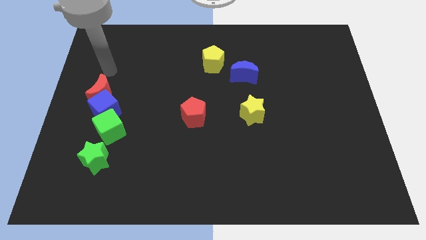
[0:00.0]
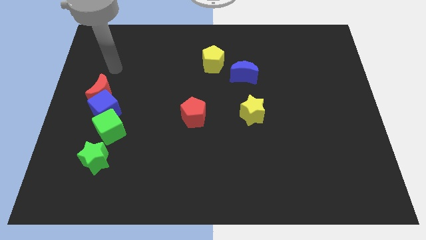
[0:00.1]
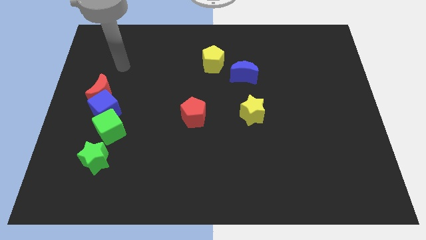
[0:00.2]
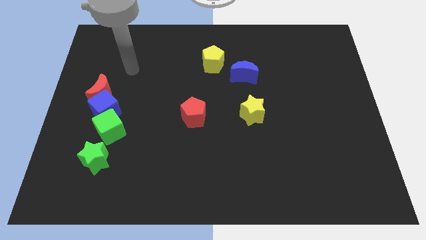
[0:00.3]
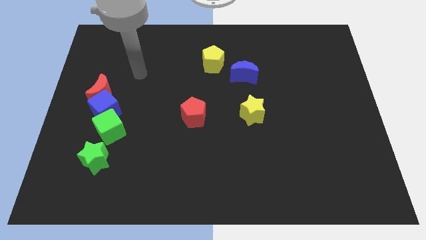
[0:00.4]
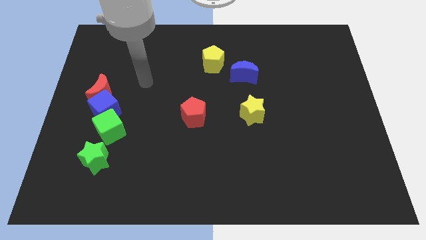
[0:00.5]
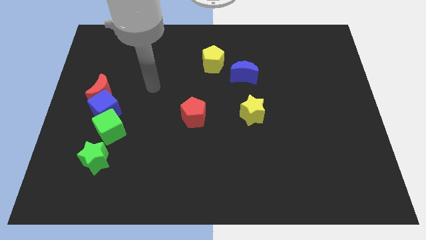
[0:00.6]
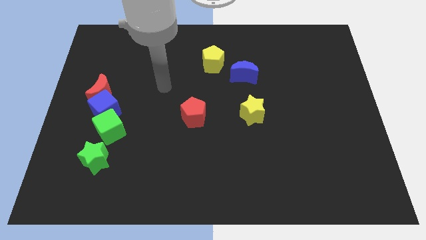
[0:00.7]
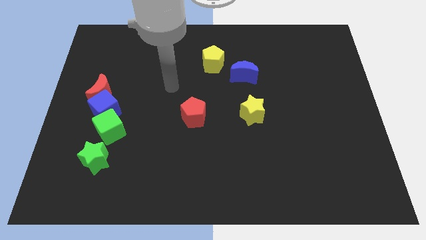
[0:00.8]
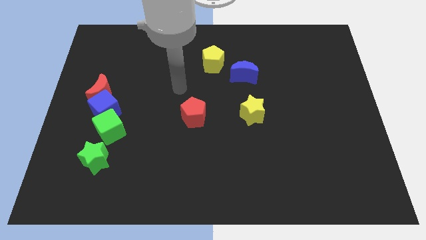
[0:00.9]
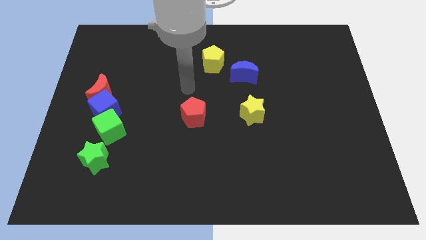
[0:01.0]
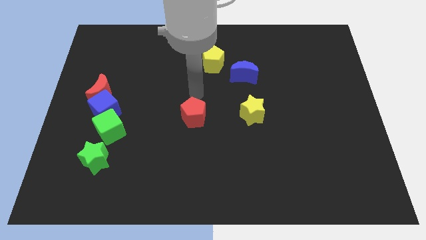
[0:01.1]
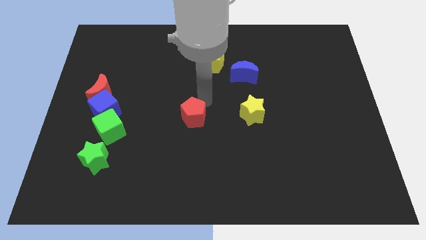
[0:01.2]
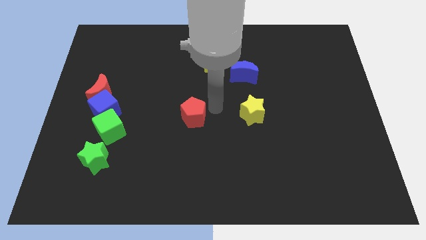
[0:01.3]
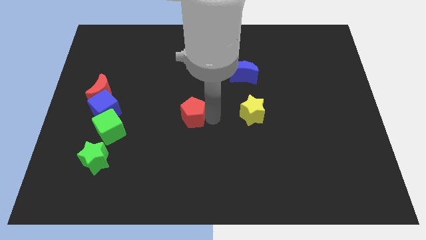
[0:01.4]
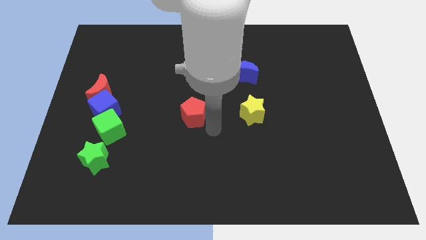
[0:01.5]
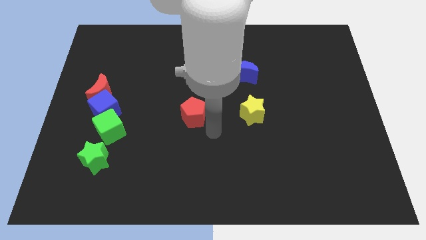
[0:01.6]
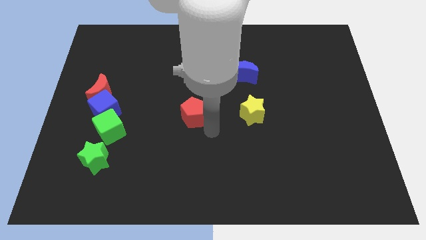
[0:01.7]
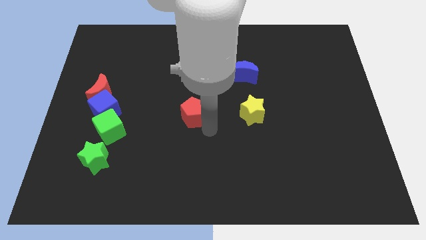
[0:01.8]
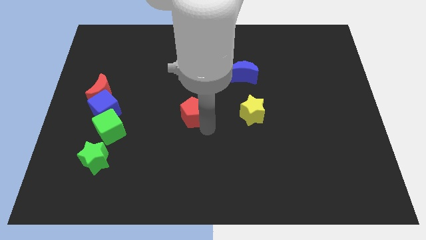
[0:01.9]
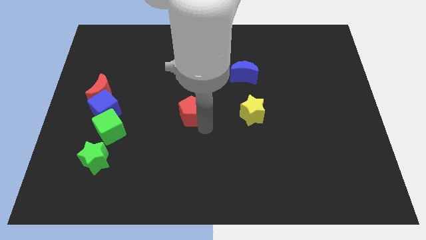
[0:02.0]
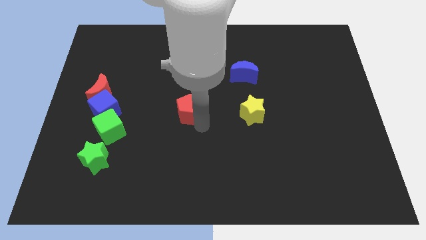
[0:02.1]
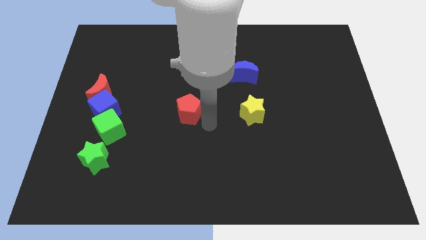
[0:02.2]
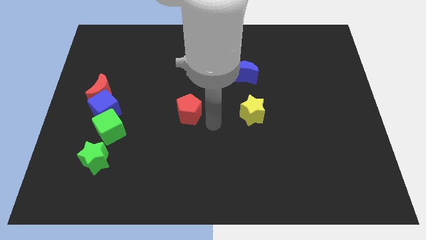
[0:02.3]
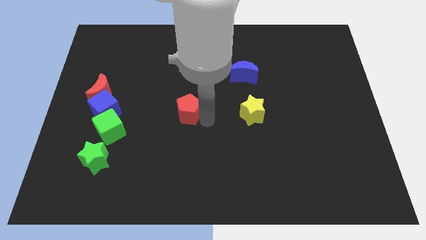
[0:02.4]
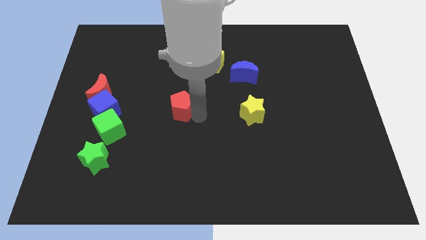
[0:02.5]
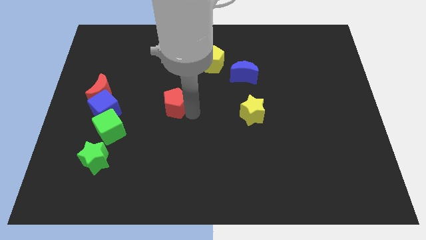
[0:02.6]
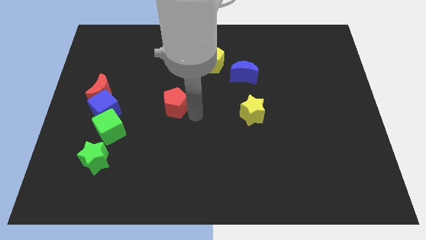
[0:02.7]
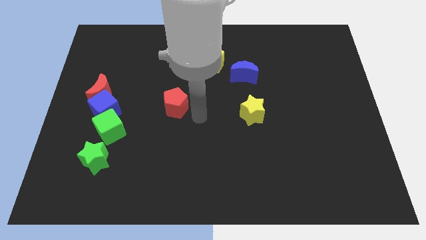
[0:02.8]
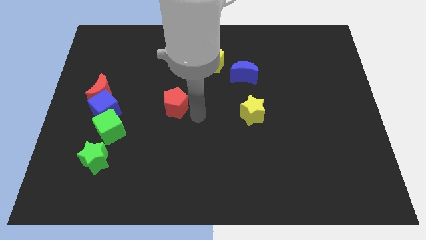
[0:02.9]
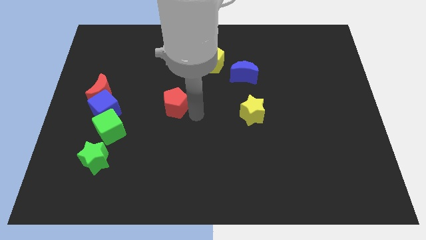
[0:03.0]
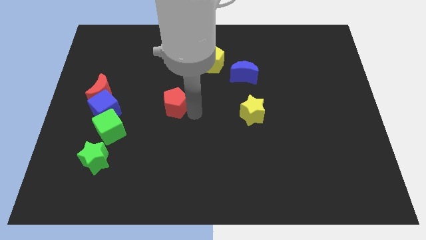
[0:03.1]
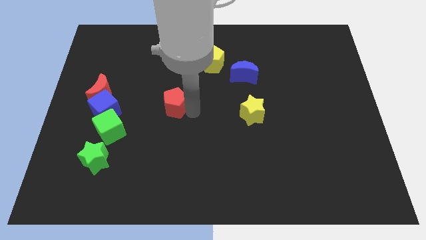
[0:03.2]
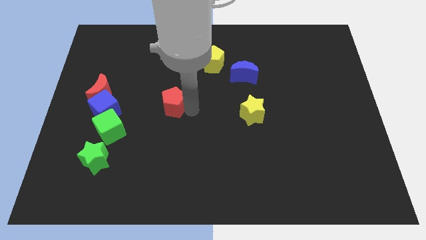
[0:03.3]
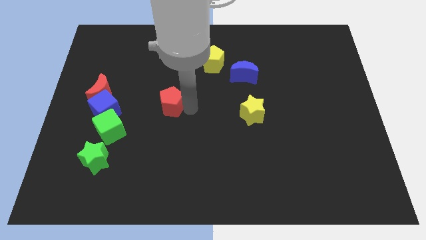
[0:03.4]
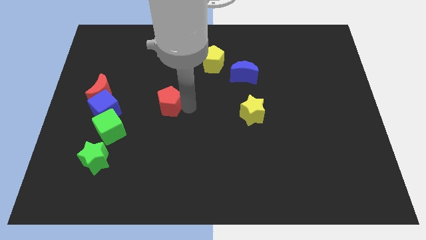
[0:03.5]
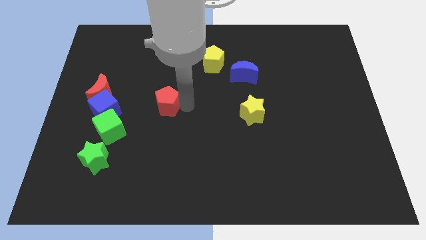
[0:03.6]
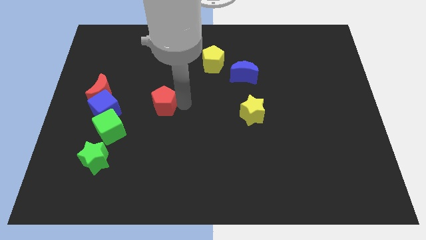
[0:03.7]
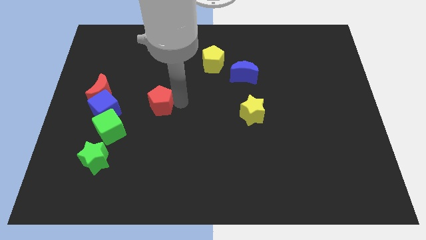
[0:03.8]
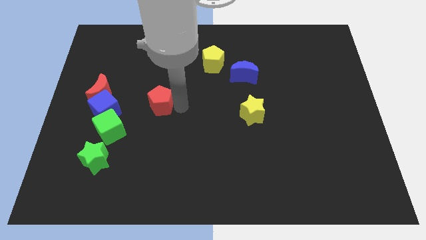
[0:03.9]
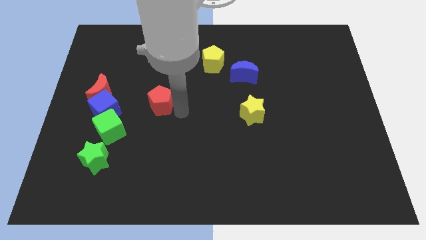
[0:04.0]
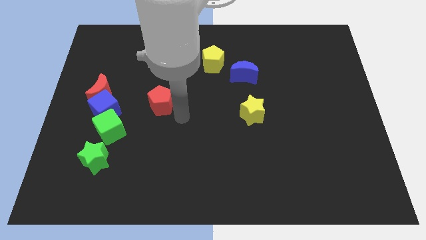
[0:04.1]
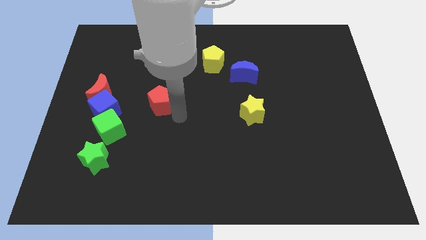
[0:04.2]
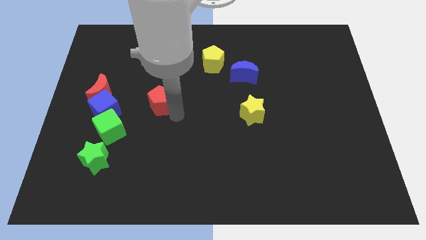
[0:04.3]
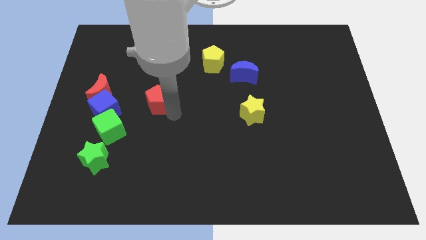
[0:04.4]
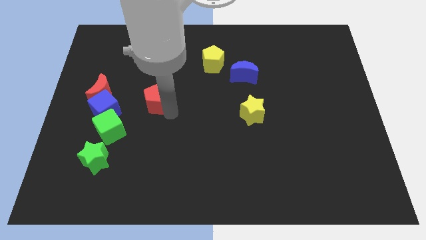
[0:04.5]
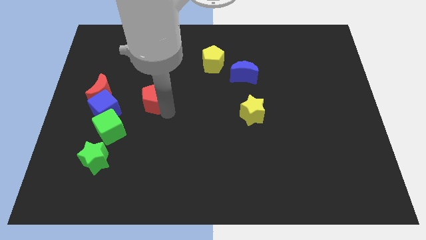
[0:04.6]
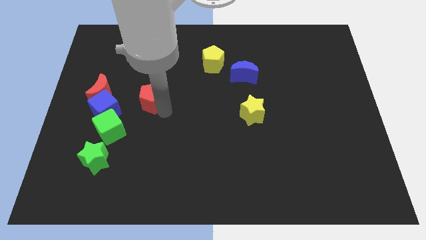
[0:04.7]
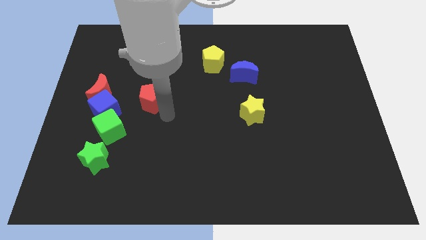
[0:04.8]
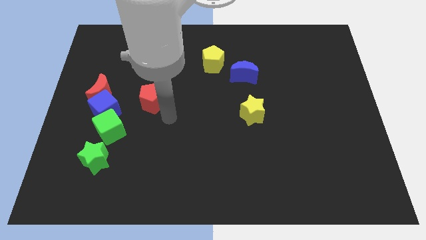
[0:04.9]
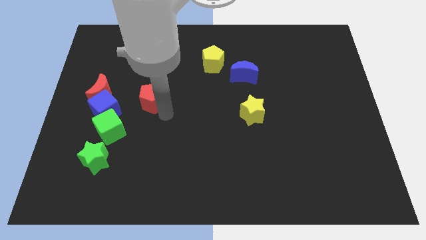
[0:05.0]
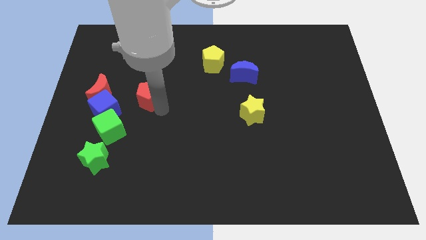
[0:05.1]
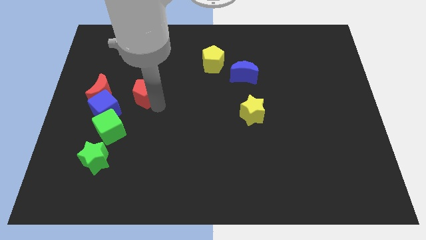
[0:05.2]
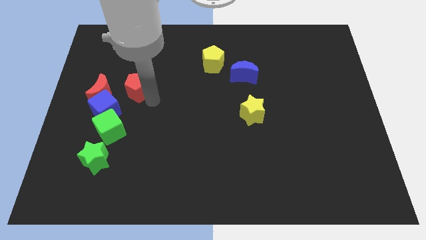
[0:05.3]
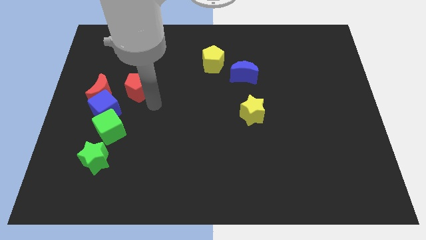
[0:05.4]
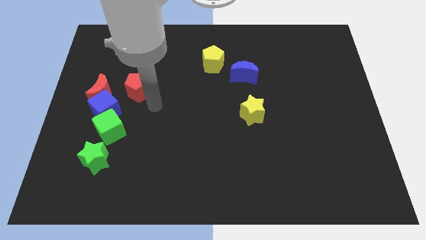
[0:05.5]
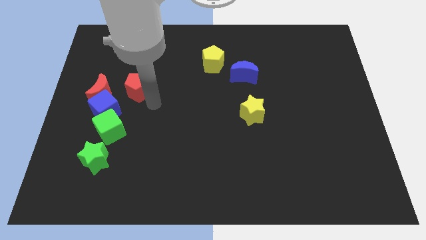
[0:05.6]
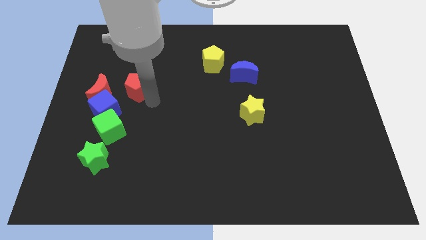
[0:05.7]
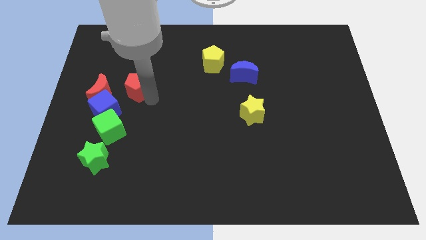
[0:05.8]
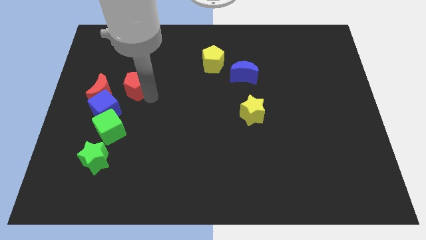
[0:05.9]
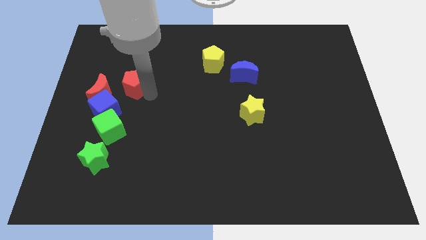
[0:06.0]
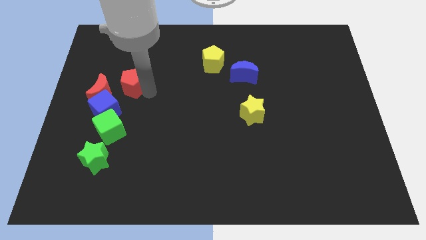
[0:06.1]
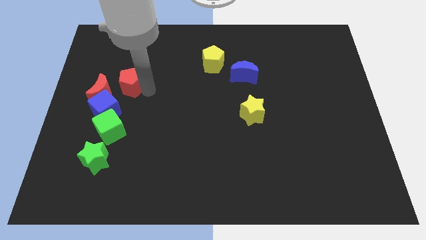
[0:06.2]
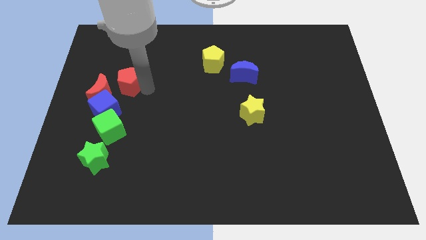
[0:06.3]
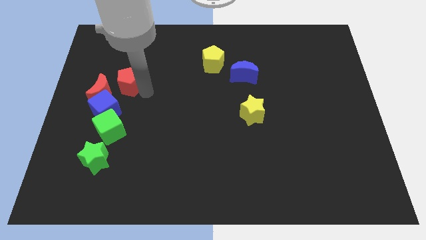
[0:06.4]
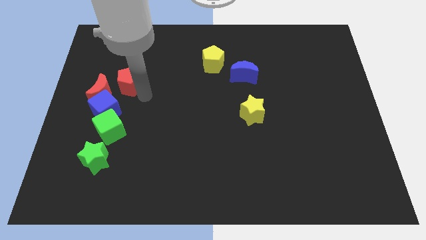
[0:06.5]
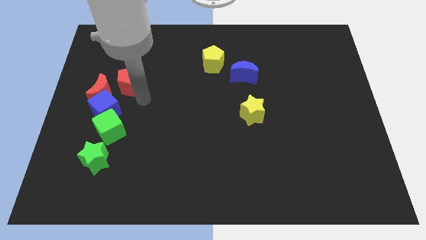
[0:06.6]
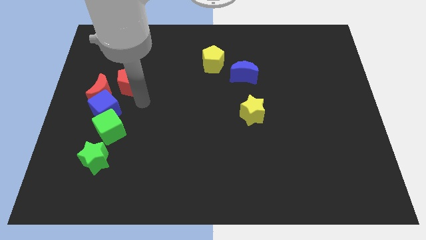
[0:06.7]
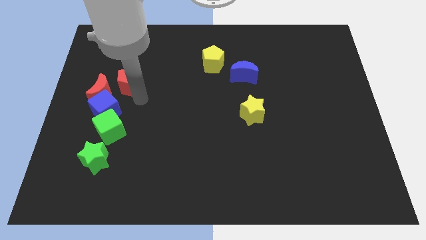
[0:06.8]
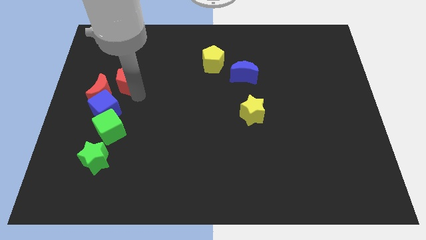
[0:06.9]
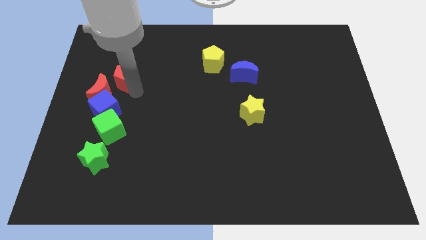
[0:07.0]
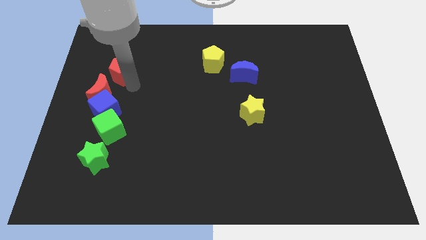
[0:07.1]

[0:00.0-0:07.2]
move the red pentagon to the top side of the red moon
